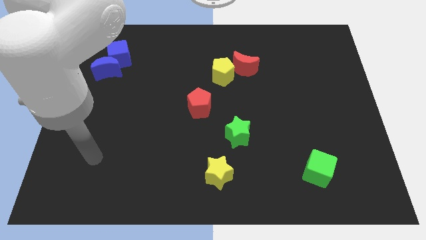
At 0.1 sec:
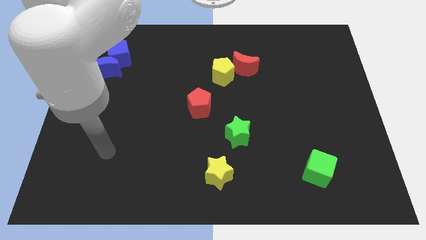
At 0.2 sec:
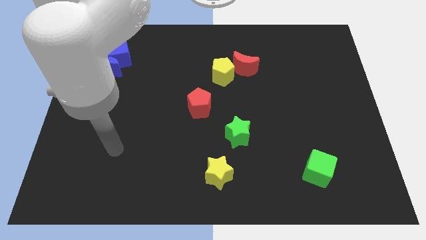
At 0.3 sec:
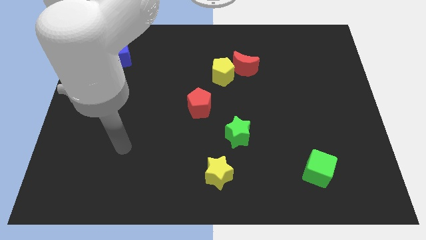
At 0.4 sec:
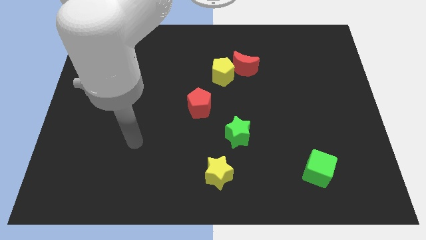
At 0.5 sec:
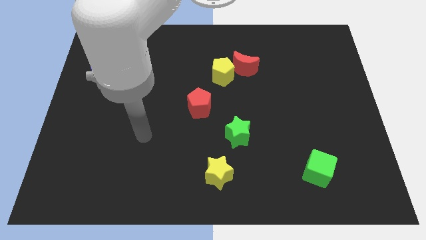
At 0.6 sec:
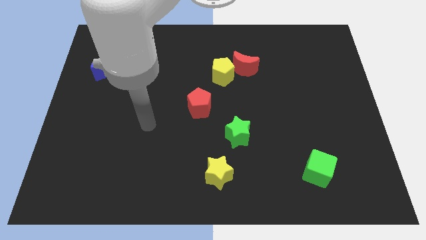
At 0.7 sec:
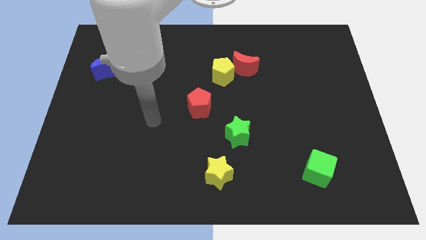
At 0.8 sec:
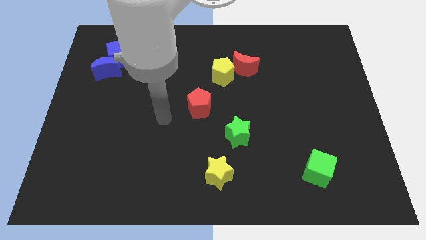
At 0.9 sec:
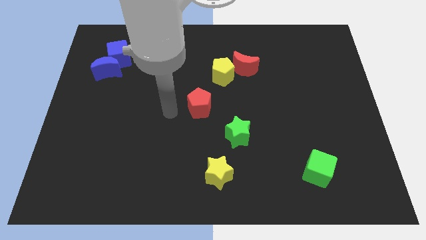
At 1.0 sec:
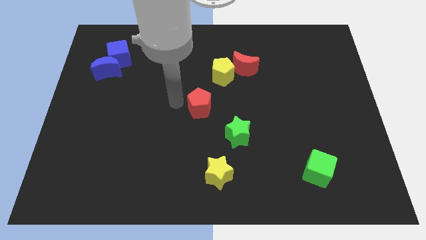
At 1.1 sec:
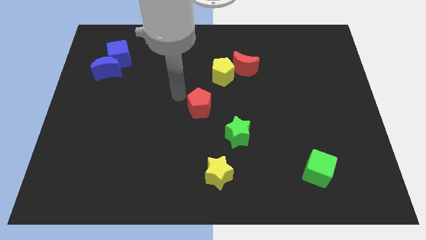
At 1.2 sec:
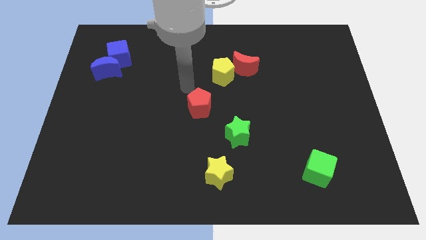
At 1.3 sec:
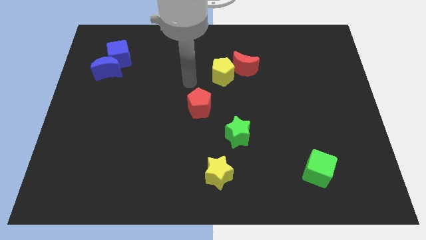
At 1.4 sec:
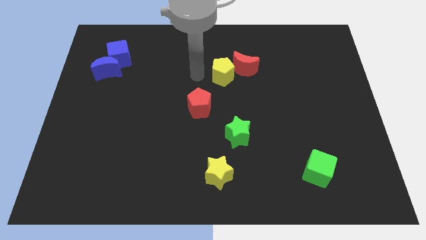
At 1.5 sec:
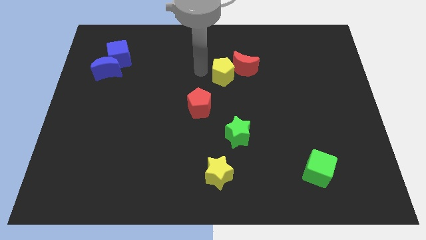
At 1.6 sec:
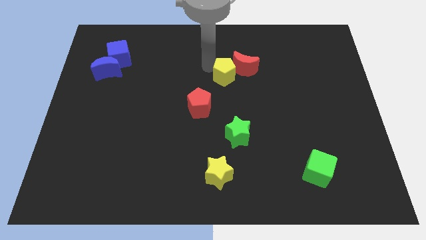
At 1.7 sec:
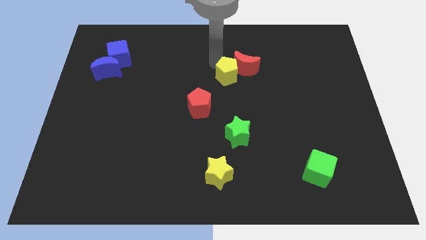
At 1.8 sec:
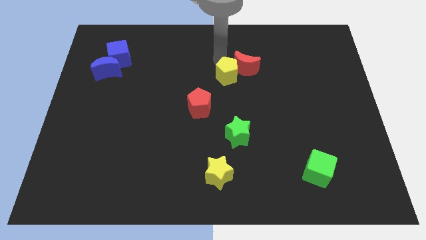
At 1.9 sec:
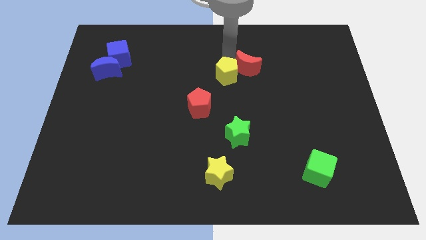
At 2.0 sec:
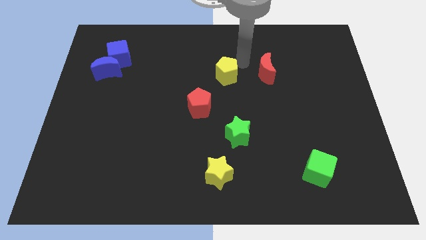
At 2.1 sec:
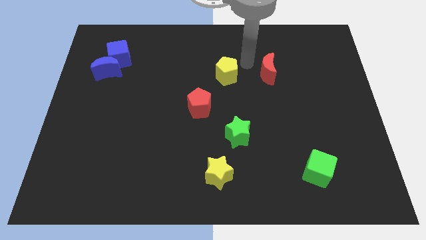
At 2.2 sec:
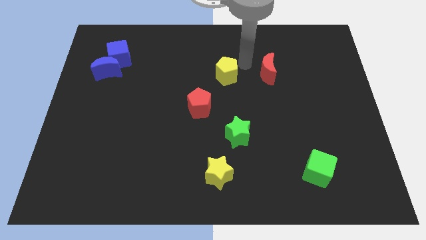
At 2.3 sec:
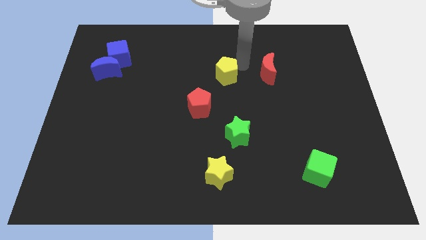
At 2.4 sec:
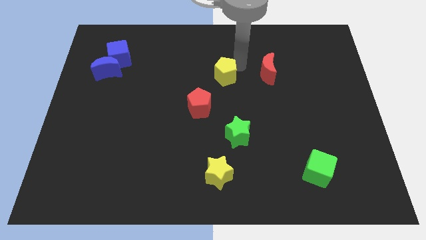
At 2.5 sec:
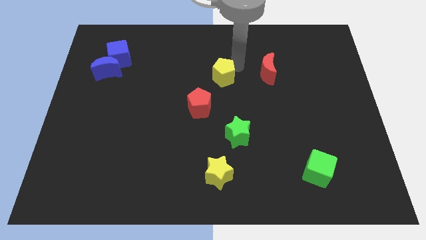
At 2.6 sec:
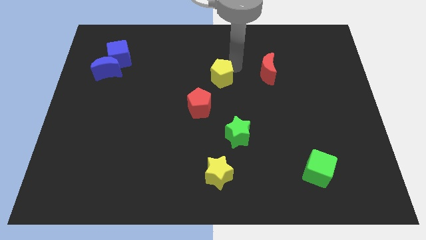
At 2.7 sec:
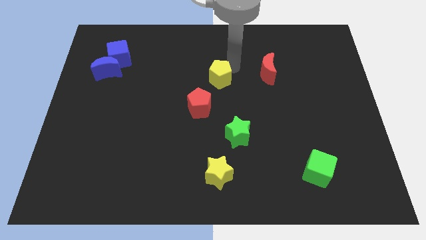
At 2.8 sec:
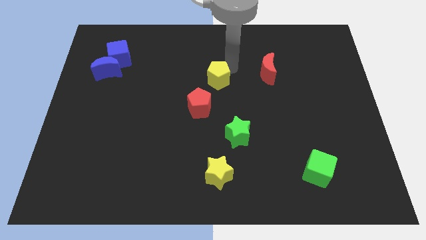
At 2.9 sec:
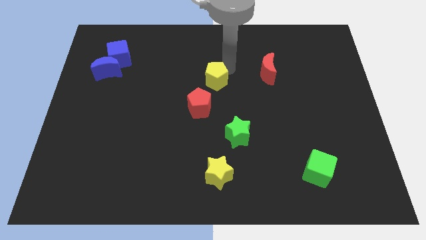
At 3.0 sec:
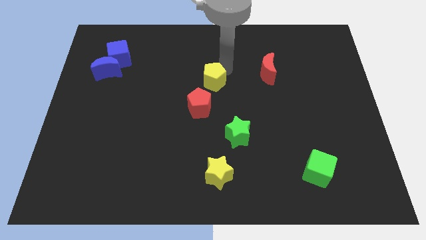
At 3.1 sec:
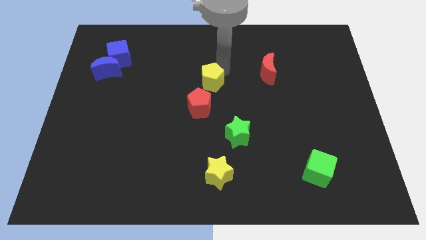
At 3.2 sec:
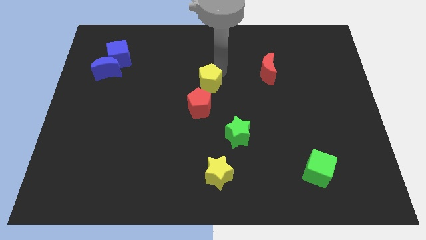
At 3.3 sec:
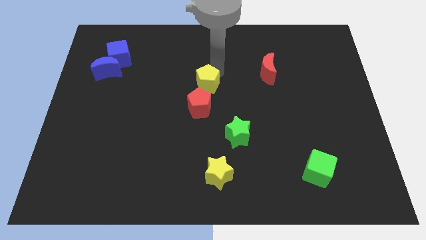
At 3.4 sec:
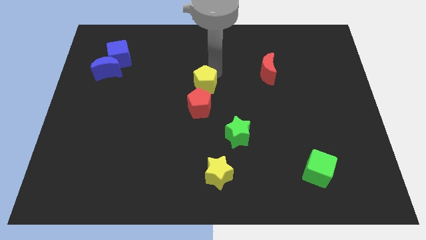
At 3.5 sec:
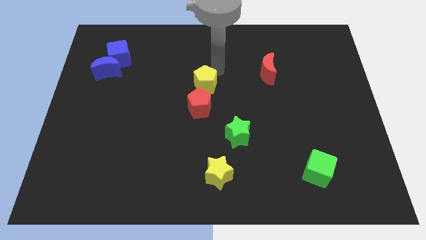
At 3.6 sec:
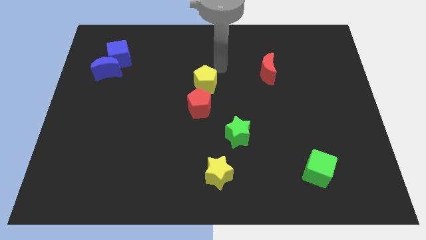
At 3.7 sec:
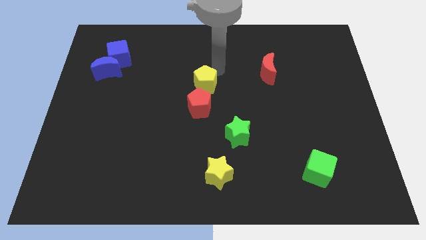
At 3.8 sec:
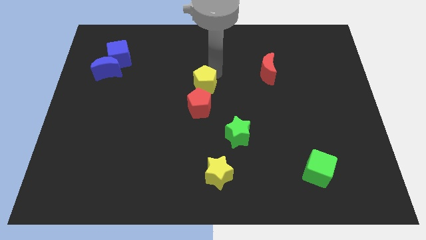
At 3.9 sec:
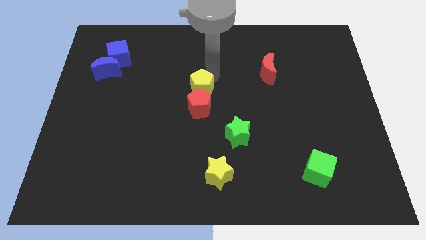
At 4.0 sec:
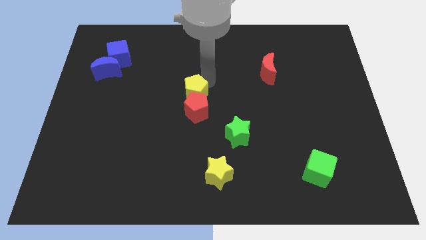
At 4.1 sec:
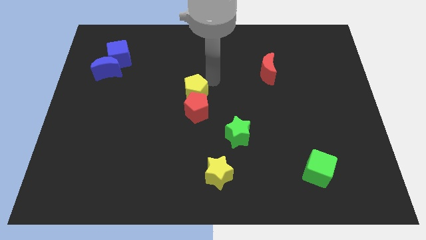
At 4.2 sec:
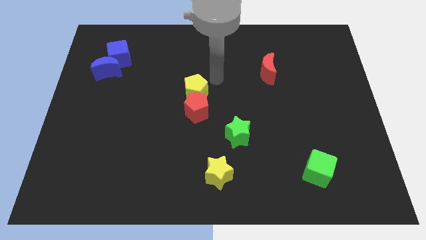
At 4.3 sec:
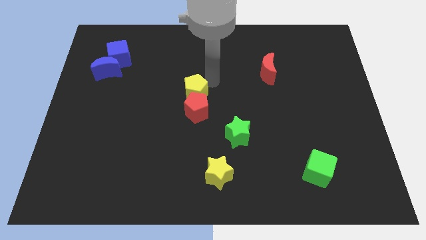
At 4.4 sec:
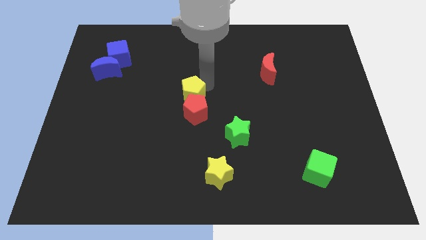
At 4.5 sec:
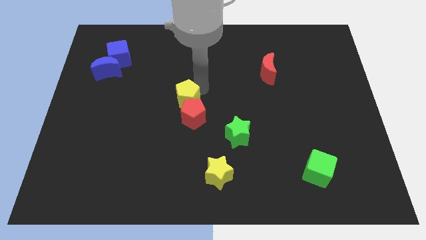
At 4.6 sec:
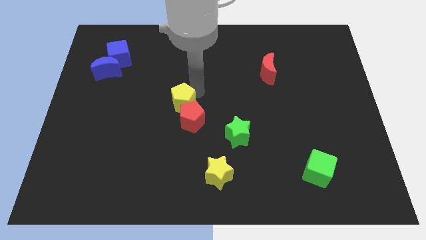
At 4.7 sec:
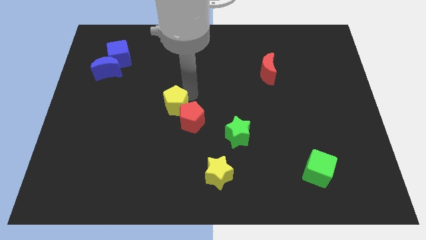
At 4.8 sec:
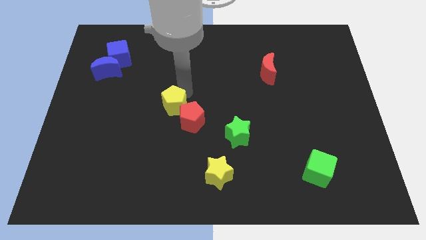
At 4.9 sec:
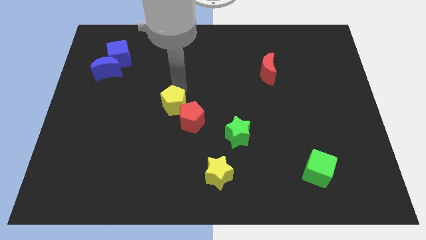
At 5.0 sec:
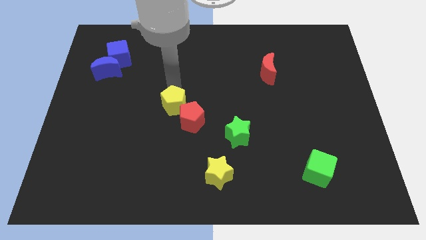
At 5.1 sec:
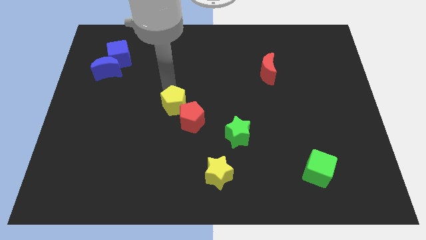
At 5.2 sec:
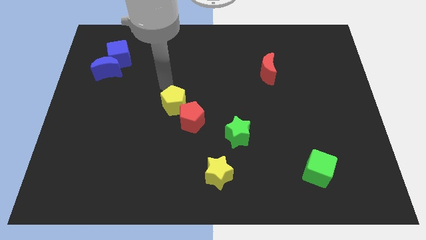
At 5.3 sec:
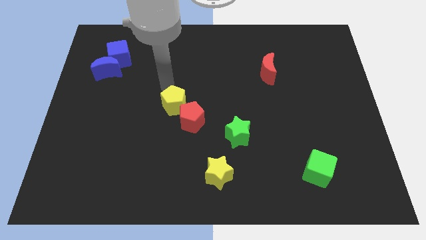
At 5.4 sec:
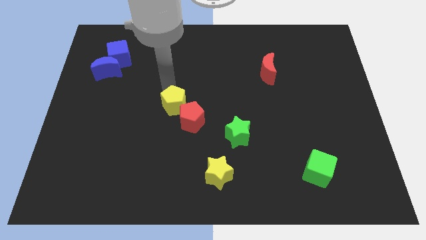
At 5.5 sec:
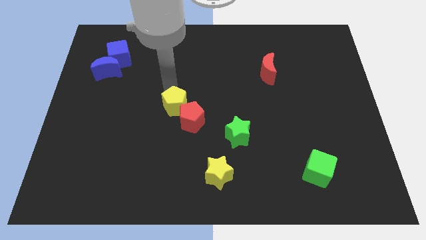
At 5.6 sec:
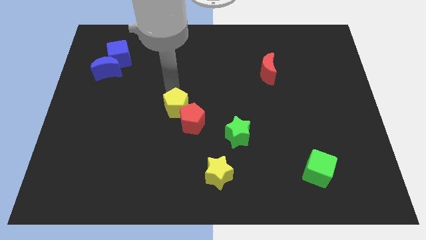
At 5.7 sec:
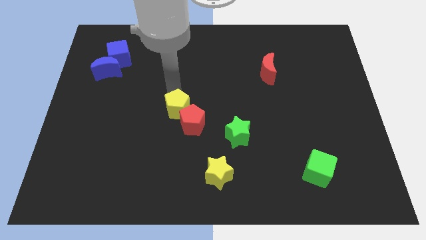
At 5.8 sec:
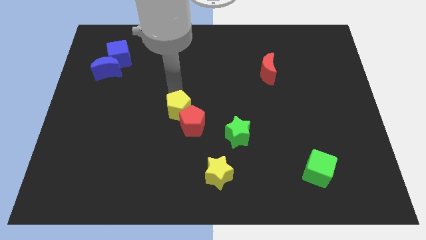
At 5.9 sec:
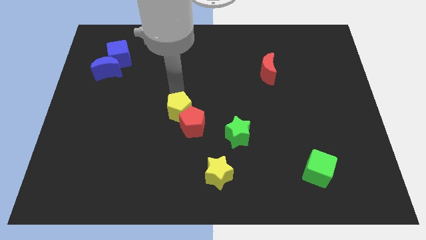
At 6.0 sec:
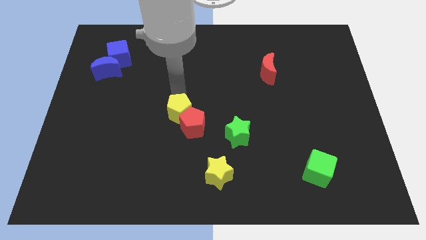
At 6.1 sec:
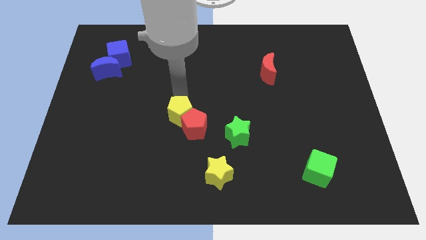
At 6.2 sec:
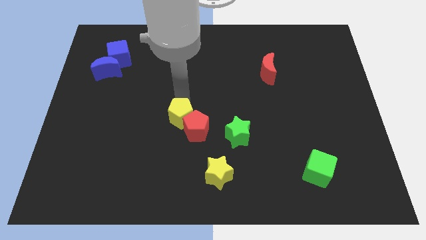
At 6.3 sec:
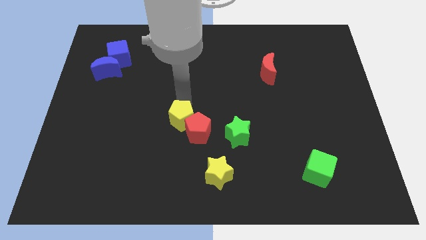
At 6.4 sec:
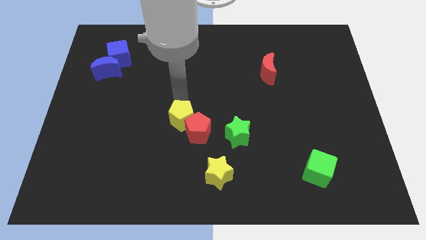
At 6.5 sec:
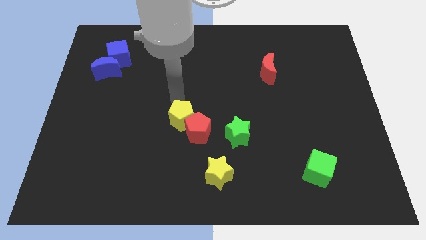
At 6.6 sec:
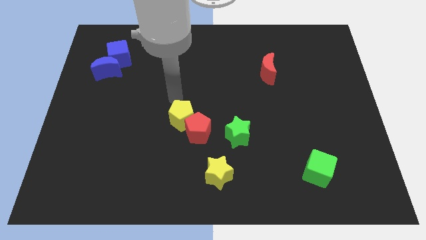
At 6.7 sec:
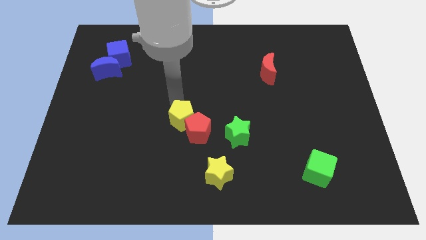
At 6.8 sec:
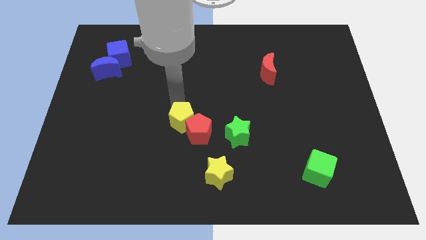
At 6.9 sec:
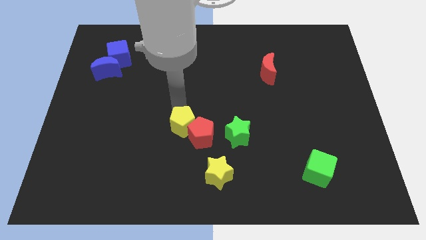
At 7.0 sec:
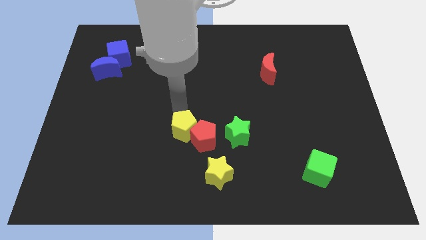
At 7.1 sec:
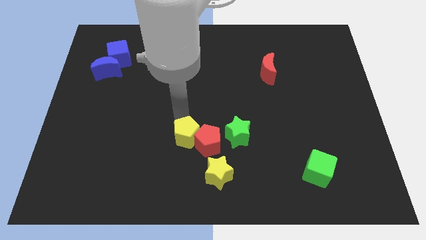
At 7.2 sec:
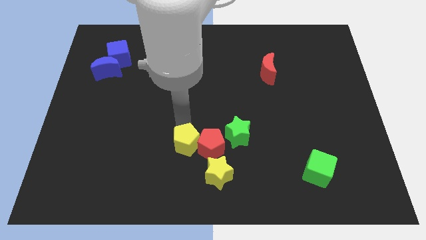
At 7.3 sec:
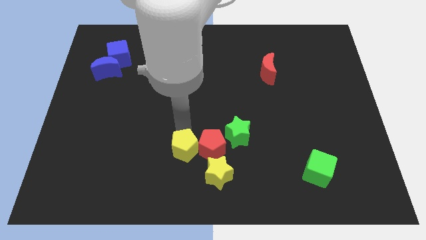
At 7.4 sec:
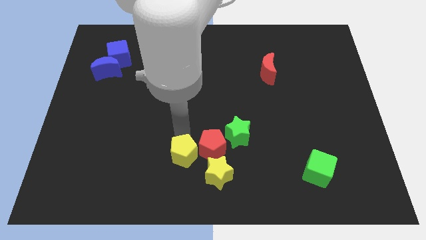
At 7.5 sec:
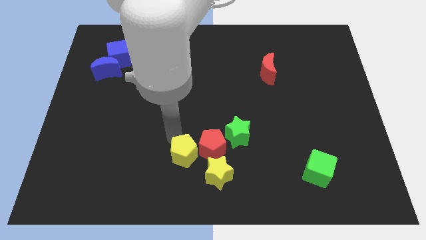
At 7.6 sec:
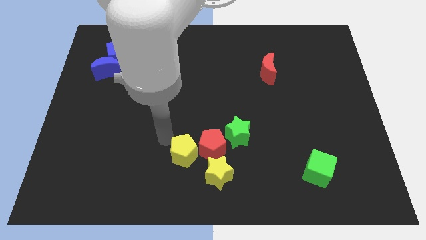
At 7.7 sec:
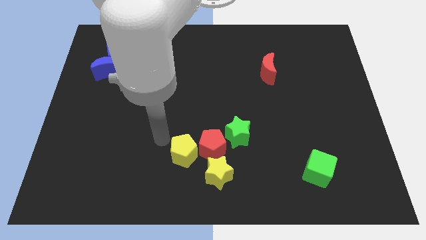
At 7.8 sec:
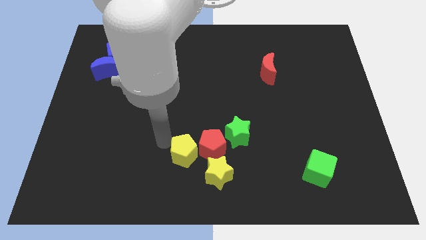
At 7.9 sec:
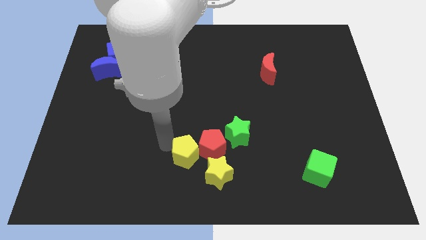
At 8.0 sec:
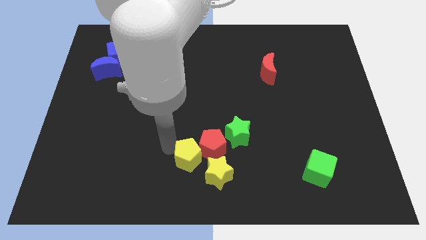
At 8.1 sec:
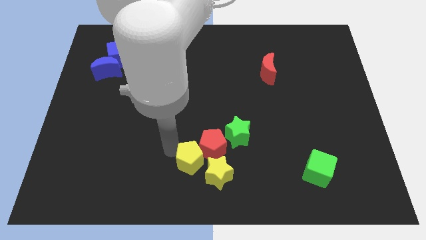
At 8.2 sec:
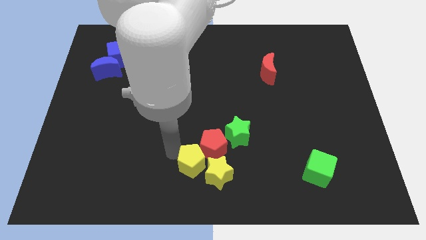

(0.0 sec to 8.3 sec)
put the yellow pentagon to the yellow star
